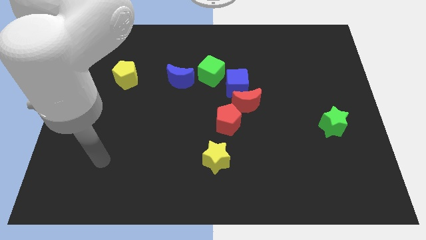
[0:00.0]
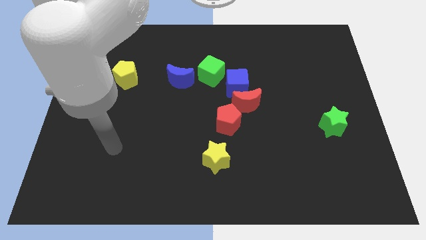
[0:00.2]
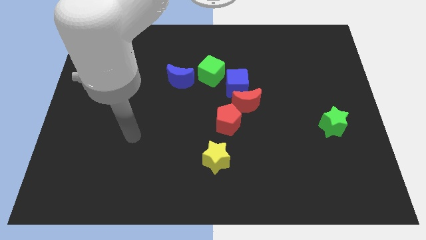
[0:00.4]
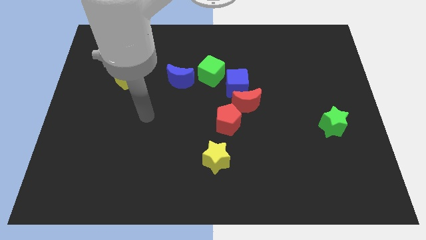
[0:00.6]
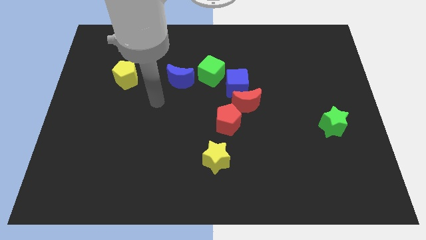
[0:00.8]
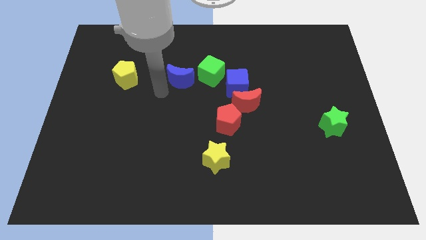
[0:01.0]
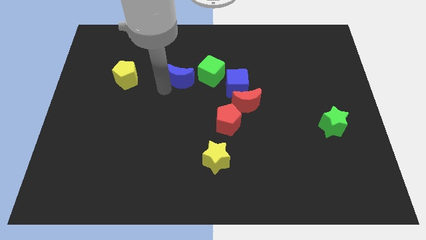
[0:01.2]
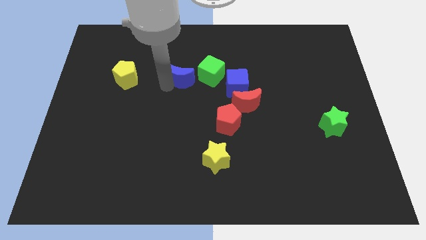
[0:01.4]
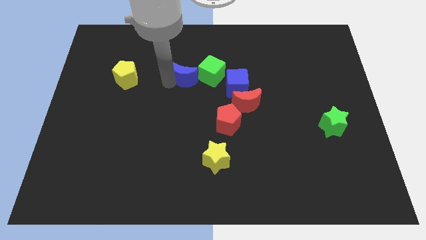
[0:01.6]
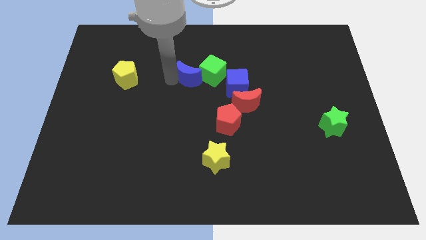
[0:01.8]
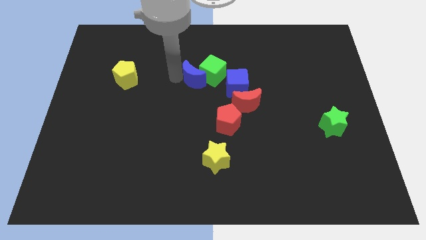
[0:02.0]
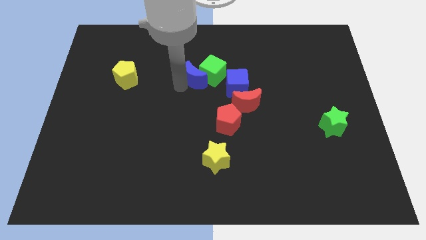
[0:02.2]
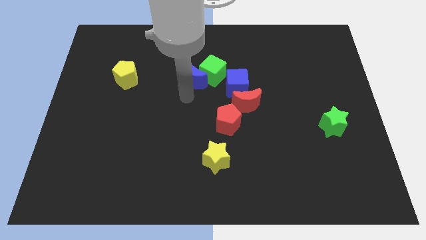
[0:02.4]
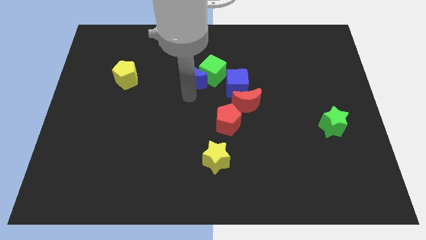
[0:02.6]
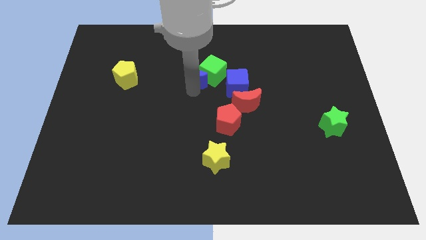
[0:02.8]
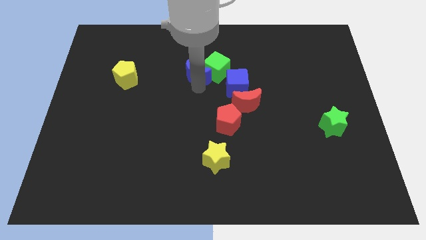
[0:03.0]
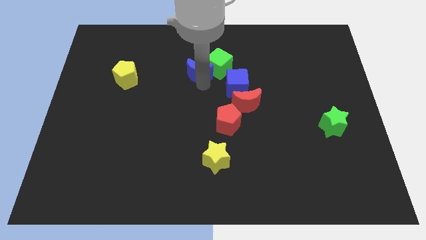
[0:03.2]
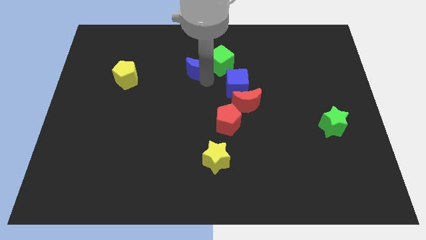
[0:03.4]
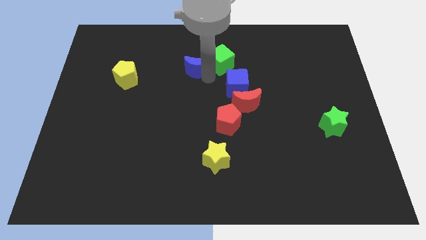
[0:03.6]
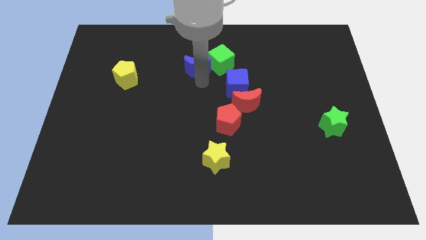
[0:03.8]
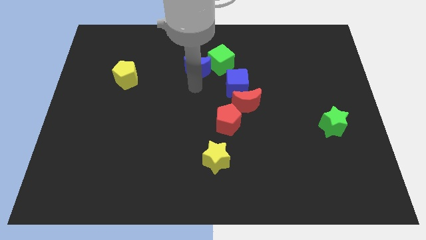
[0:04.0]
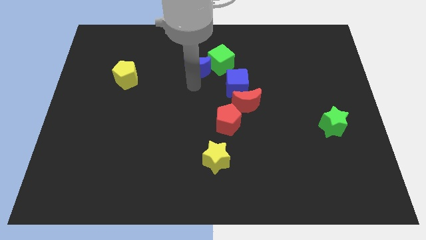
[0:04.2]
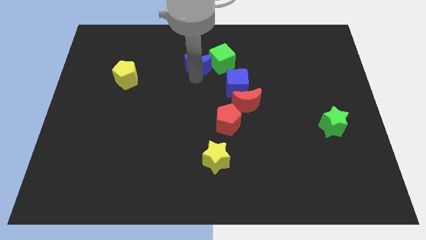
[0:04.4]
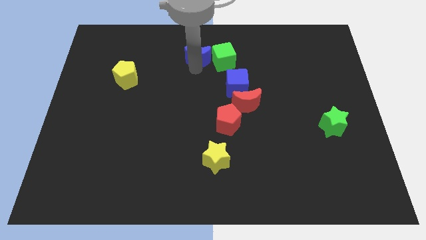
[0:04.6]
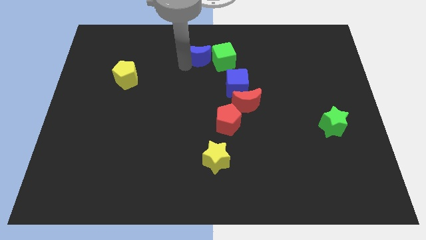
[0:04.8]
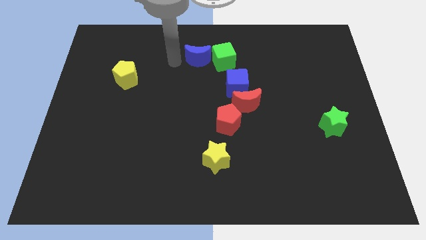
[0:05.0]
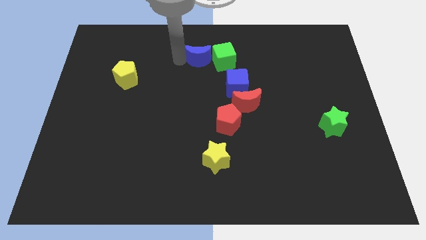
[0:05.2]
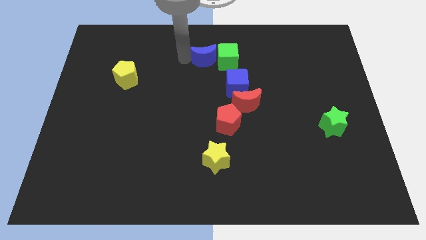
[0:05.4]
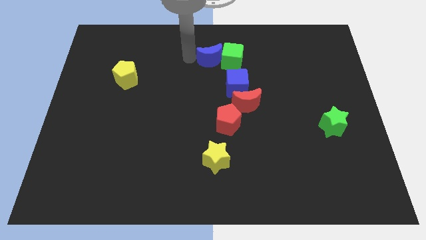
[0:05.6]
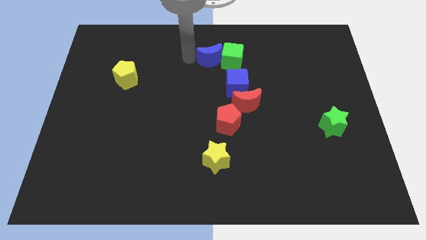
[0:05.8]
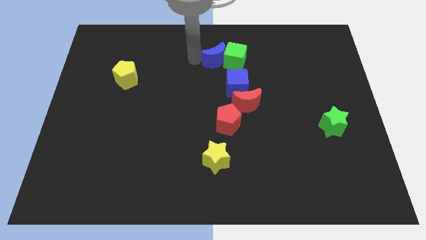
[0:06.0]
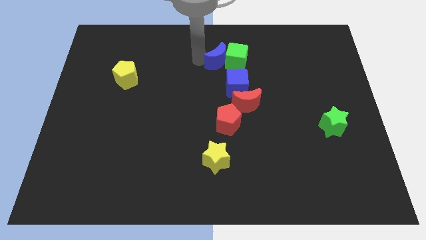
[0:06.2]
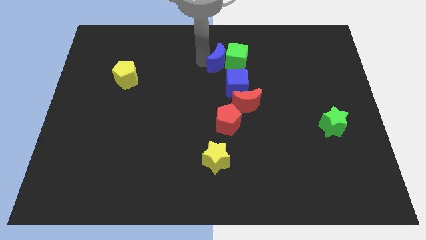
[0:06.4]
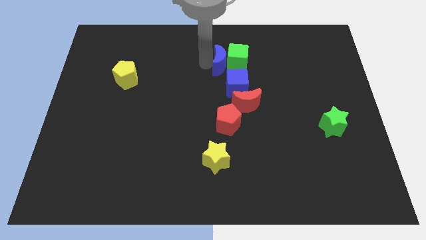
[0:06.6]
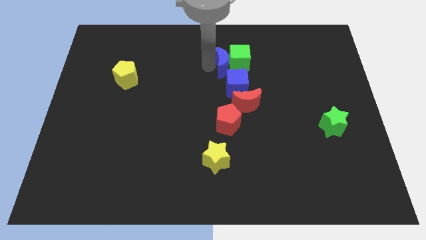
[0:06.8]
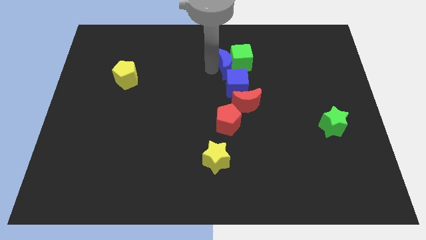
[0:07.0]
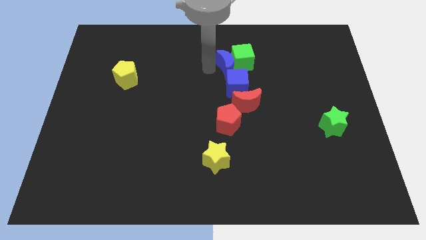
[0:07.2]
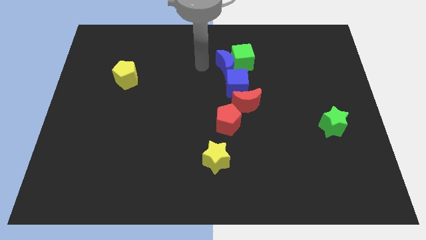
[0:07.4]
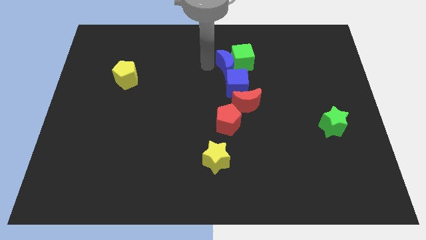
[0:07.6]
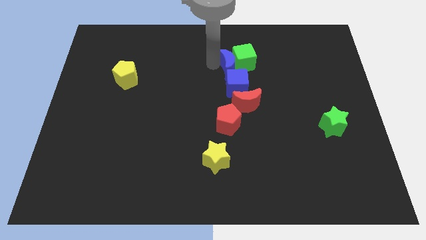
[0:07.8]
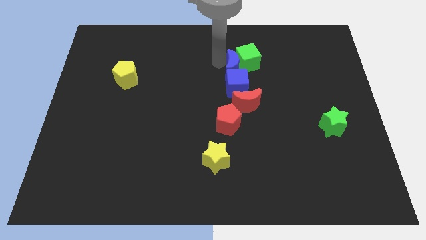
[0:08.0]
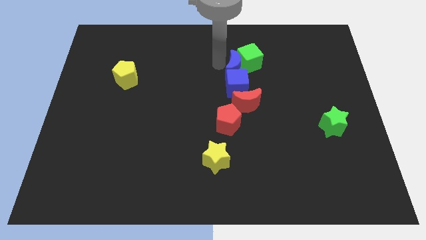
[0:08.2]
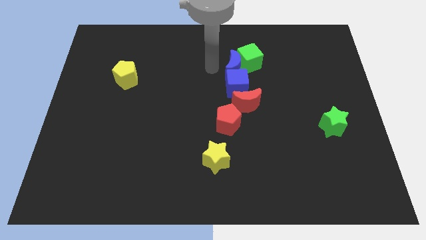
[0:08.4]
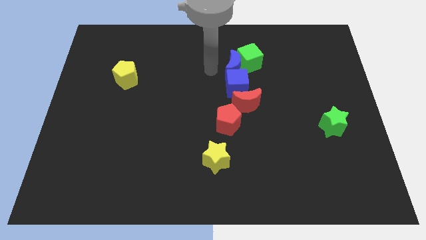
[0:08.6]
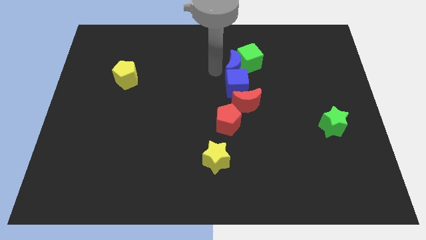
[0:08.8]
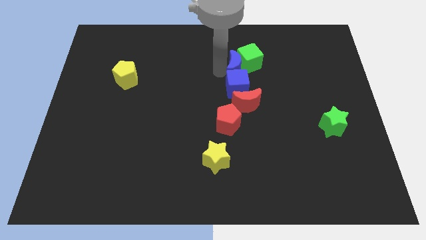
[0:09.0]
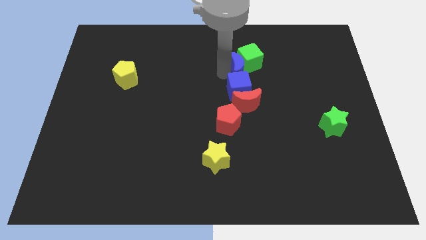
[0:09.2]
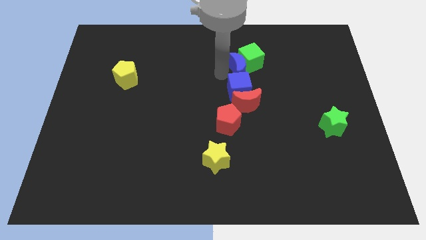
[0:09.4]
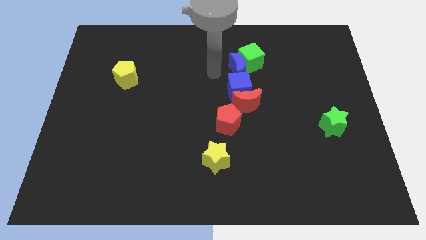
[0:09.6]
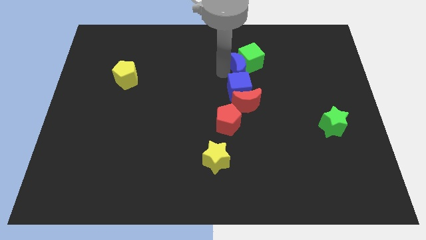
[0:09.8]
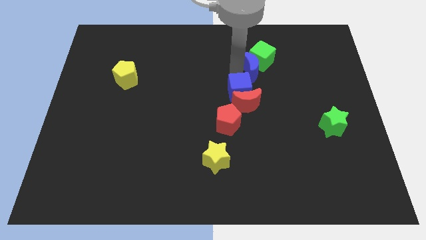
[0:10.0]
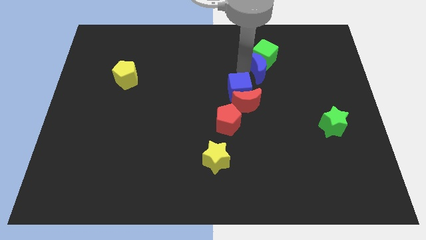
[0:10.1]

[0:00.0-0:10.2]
push the blue moon right

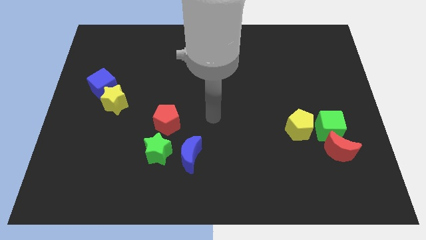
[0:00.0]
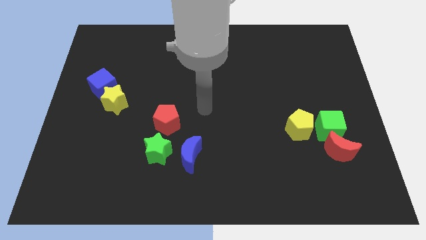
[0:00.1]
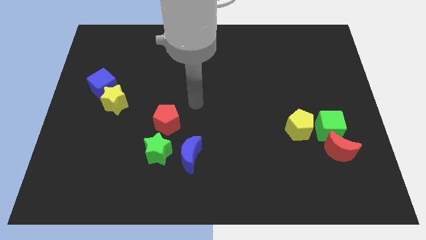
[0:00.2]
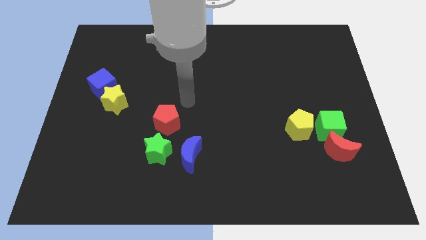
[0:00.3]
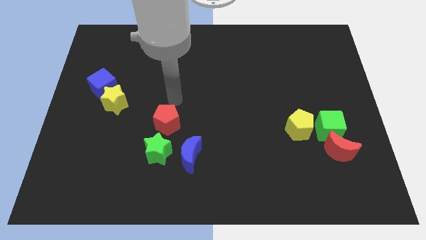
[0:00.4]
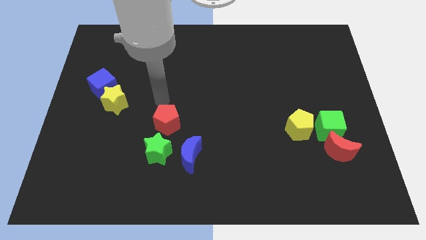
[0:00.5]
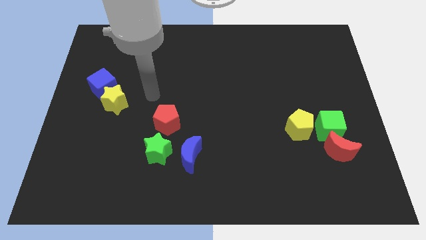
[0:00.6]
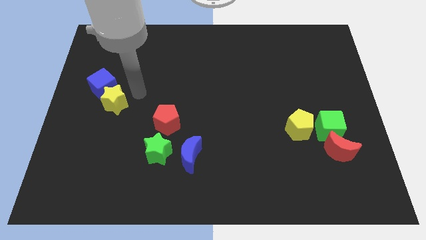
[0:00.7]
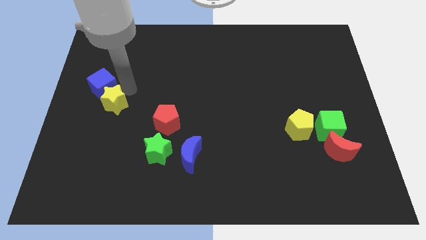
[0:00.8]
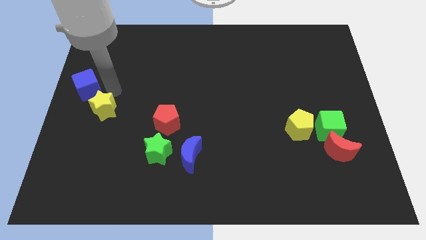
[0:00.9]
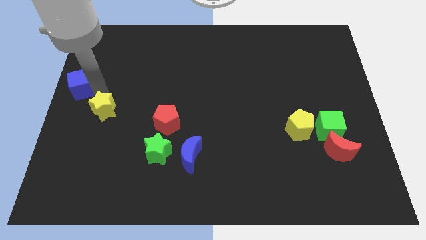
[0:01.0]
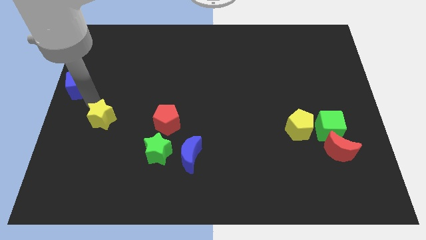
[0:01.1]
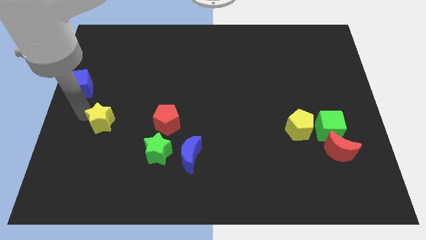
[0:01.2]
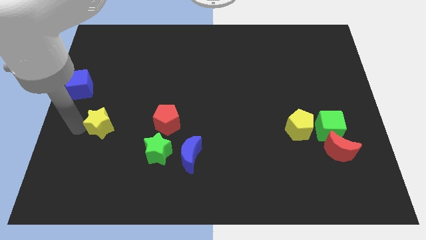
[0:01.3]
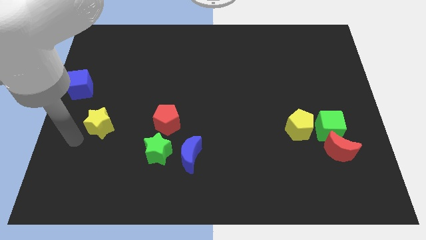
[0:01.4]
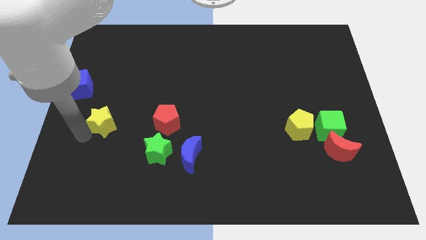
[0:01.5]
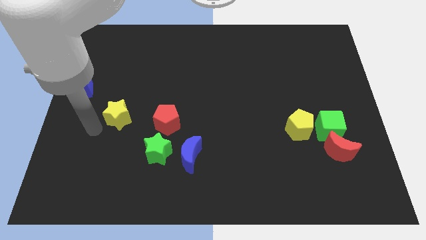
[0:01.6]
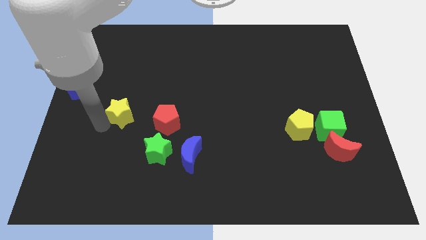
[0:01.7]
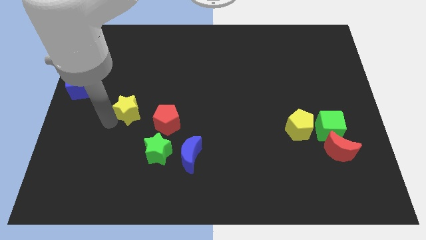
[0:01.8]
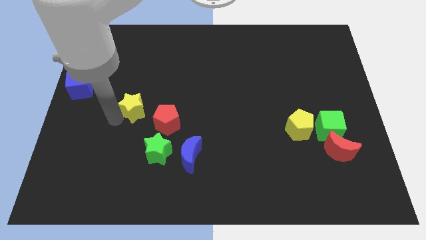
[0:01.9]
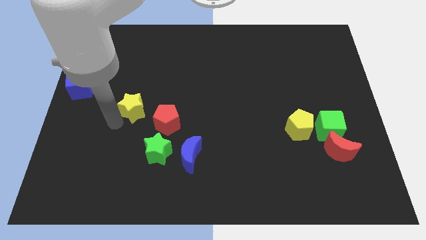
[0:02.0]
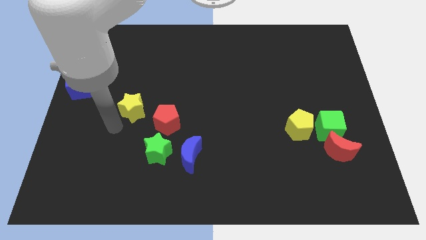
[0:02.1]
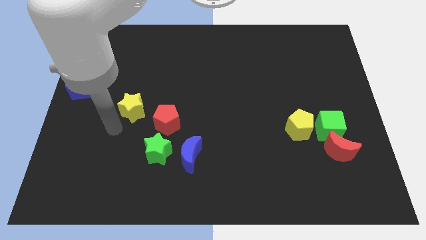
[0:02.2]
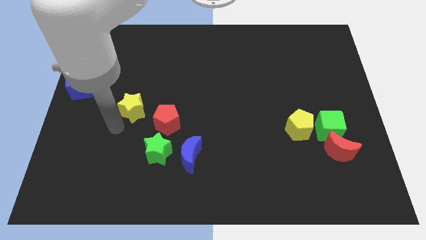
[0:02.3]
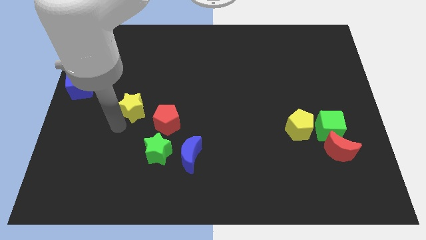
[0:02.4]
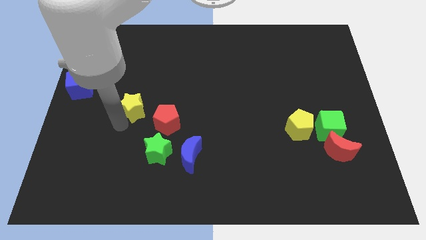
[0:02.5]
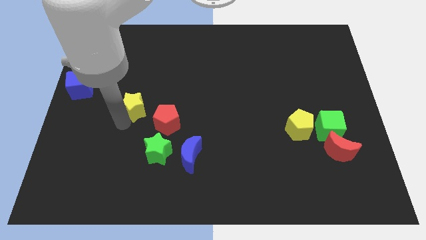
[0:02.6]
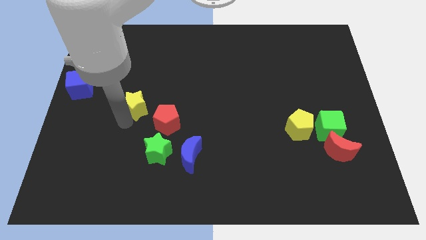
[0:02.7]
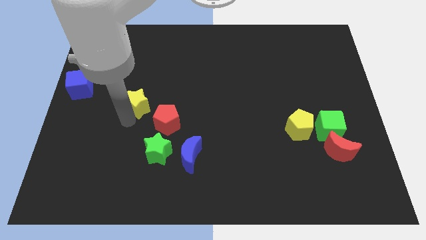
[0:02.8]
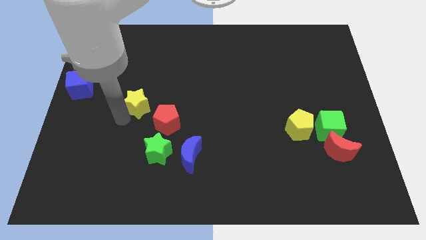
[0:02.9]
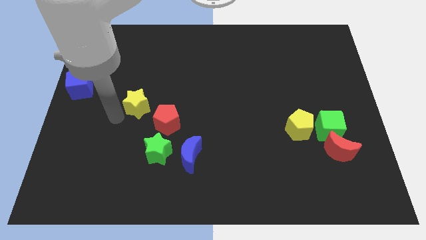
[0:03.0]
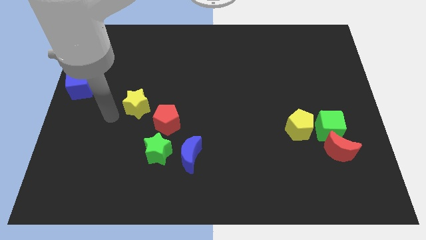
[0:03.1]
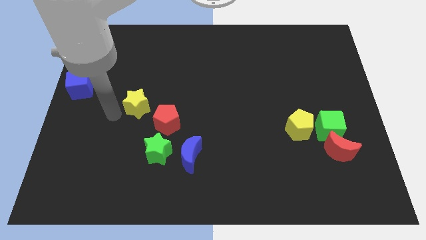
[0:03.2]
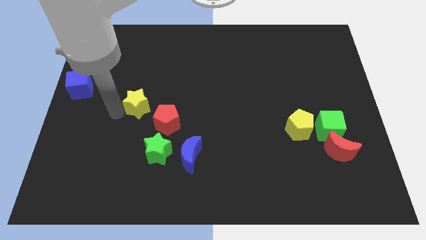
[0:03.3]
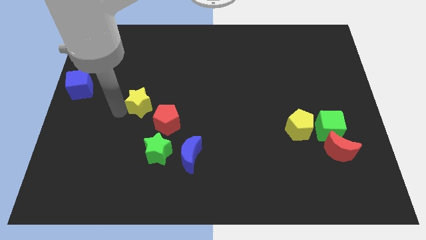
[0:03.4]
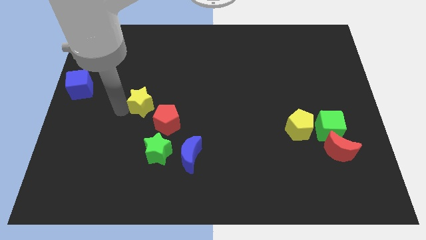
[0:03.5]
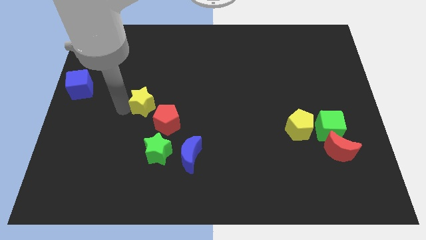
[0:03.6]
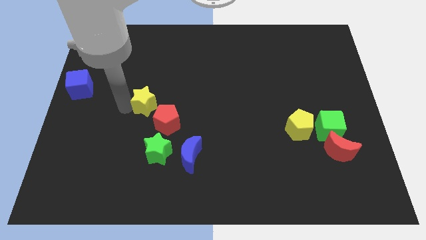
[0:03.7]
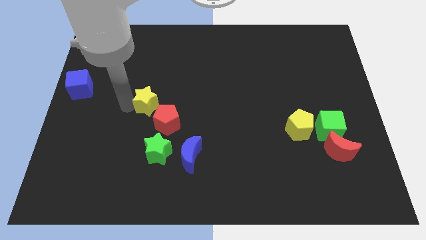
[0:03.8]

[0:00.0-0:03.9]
slightly push the yellow star to the right
